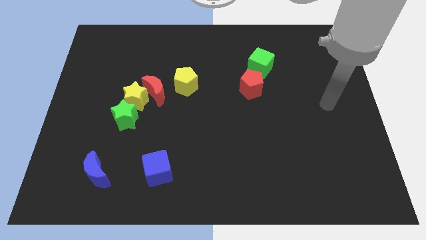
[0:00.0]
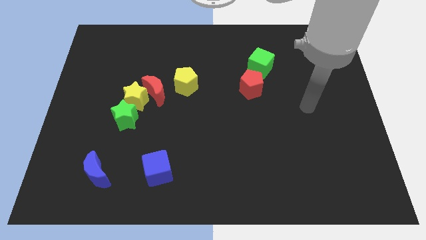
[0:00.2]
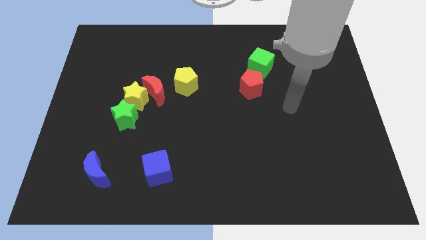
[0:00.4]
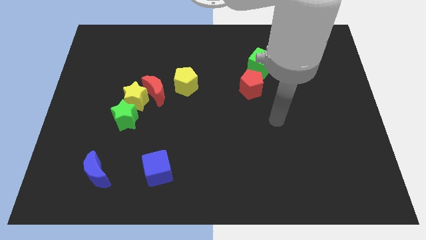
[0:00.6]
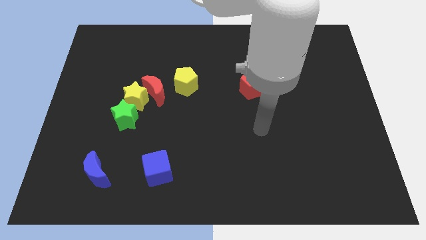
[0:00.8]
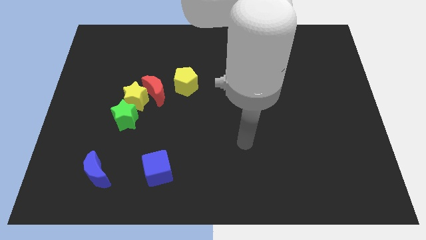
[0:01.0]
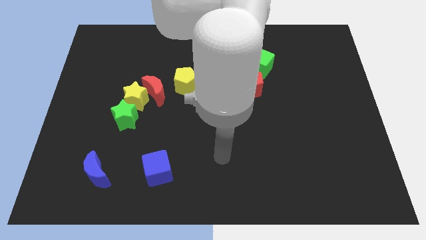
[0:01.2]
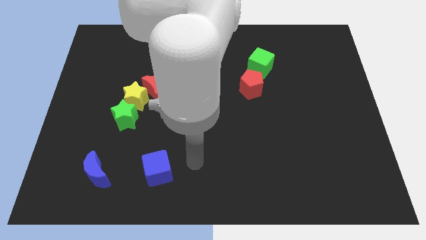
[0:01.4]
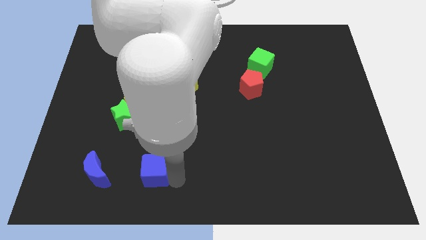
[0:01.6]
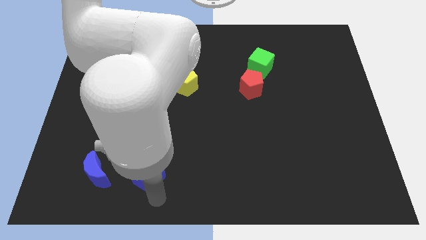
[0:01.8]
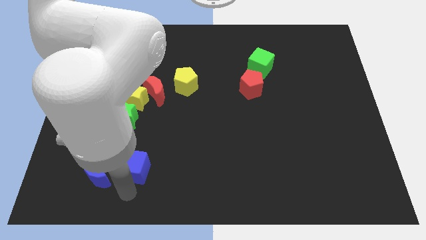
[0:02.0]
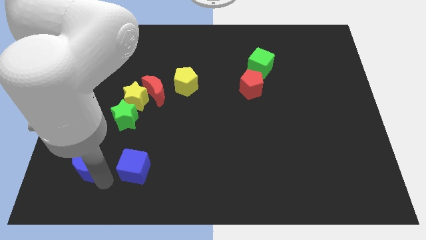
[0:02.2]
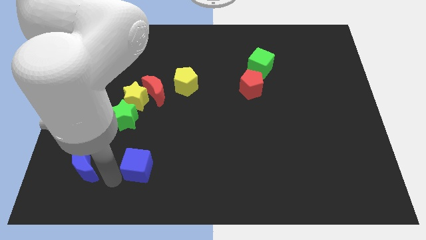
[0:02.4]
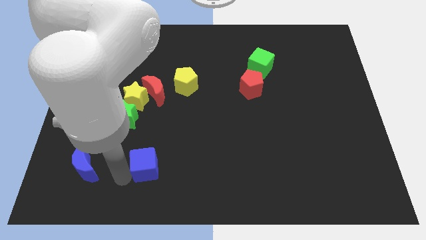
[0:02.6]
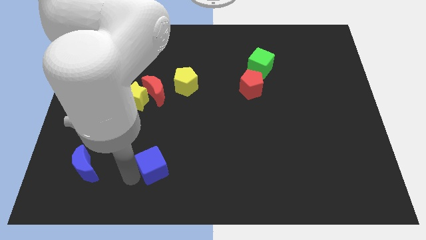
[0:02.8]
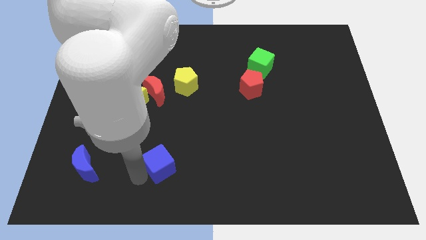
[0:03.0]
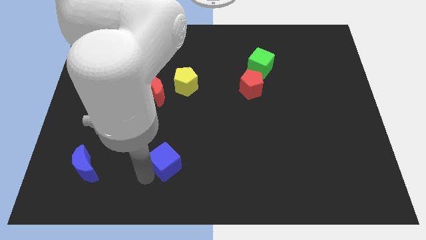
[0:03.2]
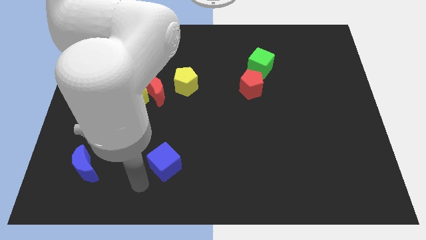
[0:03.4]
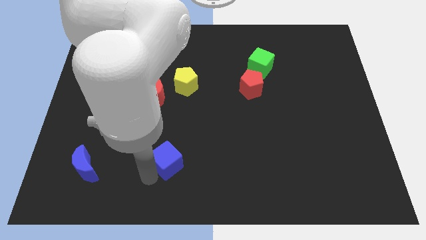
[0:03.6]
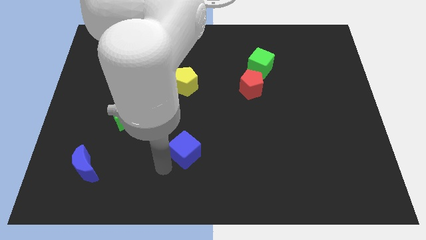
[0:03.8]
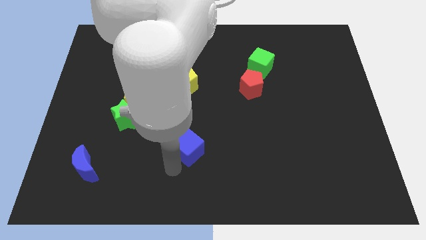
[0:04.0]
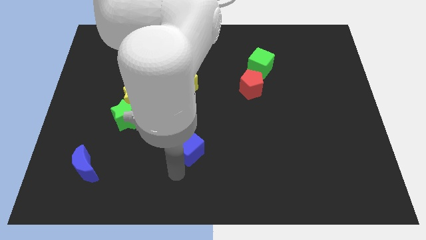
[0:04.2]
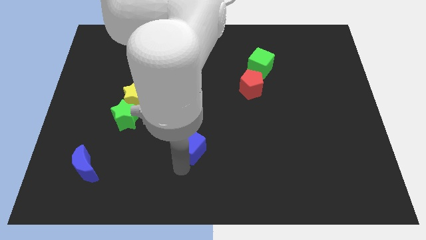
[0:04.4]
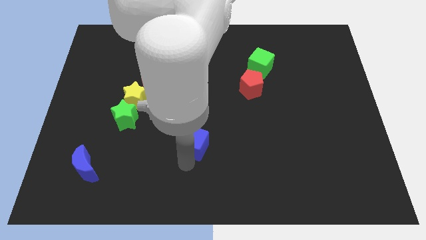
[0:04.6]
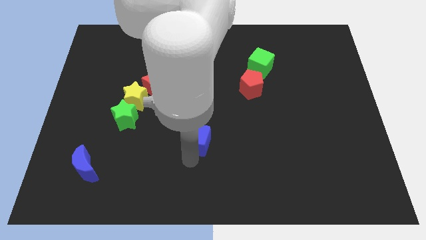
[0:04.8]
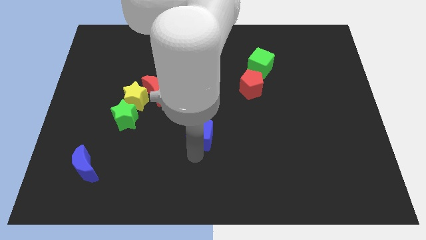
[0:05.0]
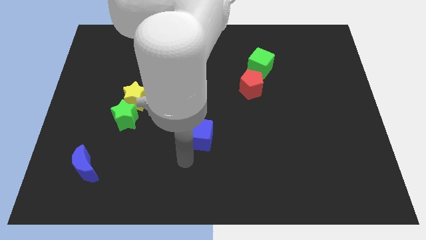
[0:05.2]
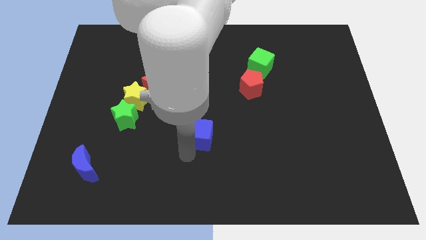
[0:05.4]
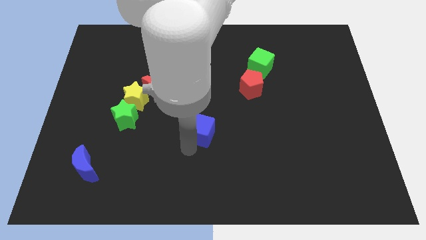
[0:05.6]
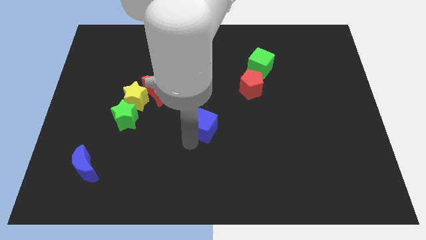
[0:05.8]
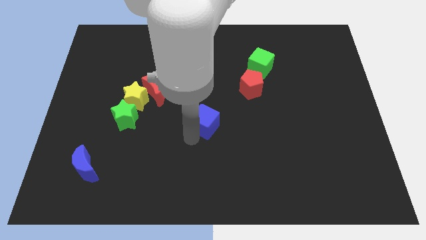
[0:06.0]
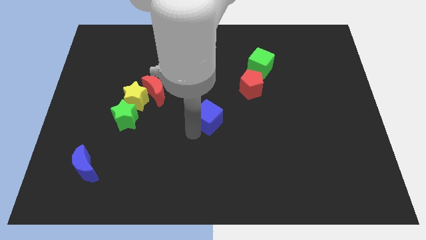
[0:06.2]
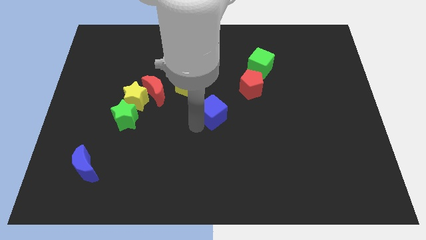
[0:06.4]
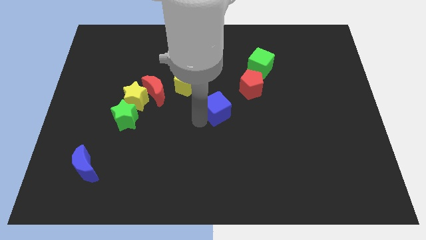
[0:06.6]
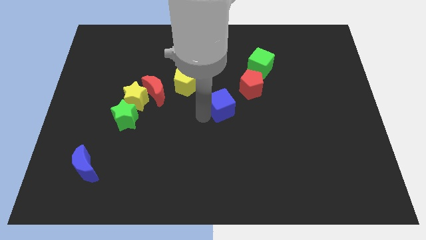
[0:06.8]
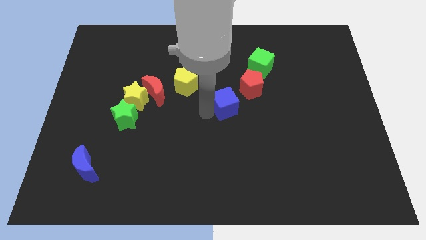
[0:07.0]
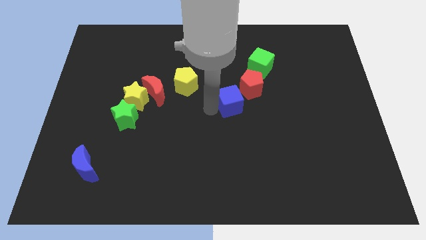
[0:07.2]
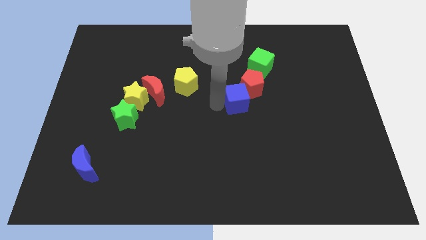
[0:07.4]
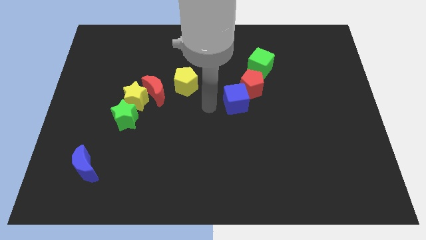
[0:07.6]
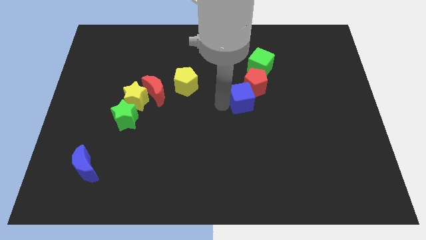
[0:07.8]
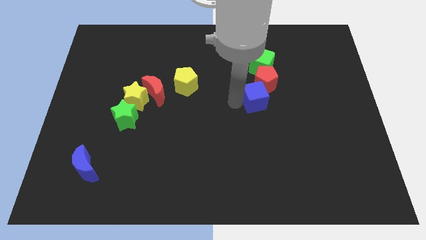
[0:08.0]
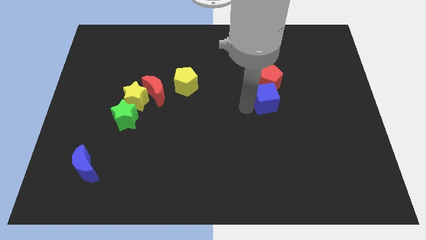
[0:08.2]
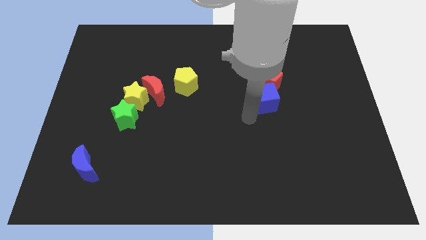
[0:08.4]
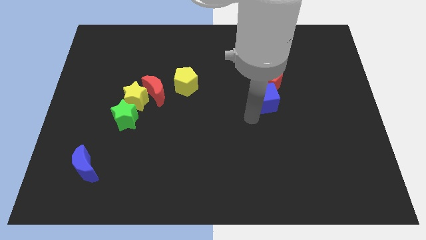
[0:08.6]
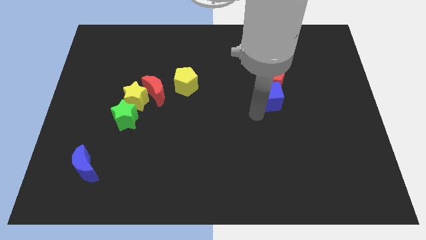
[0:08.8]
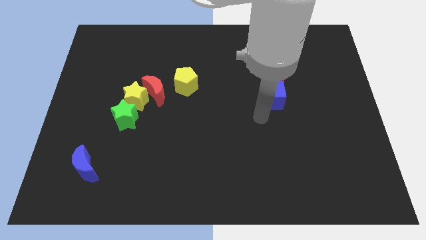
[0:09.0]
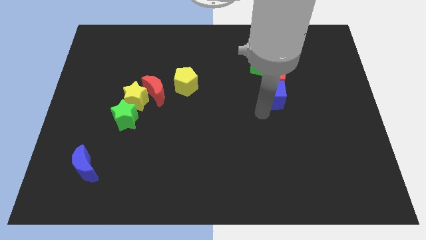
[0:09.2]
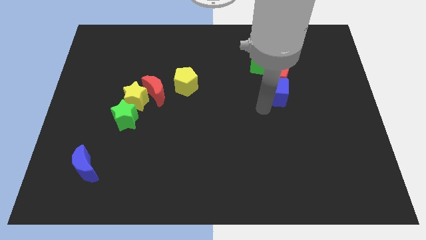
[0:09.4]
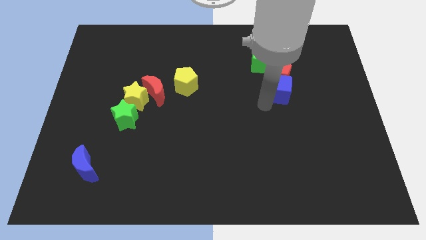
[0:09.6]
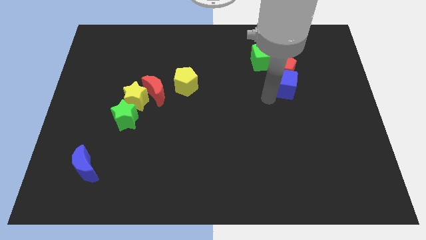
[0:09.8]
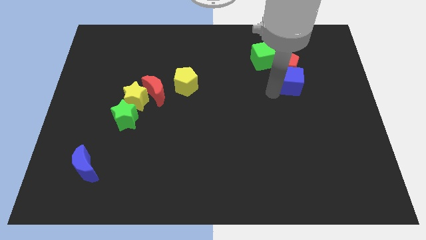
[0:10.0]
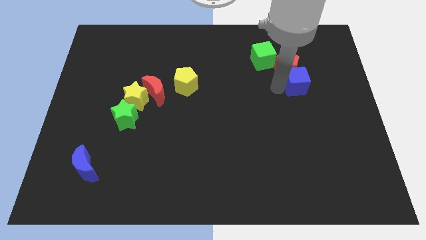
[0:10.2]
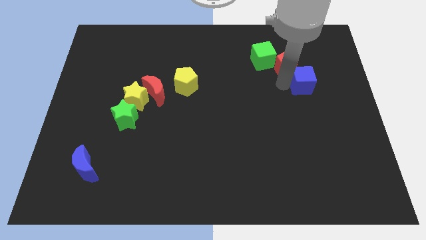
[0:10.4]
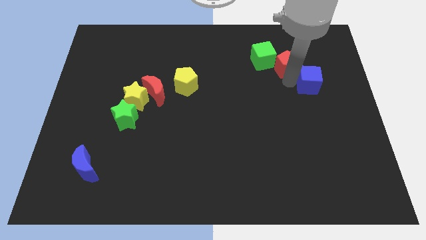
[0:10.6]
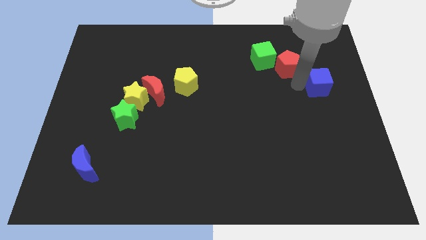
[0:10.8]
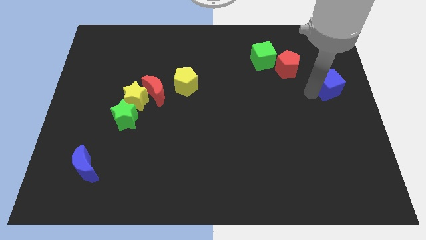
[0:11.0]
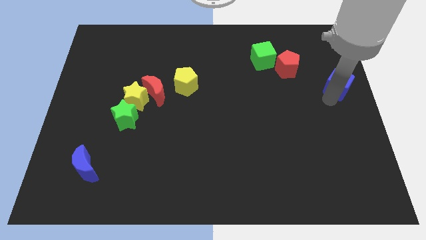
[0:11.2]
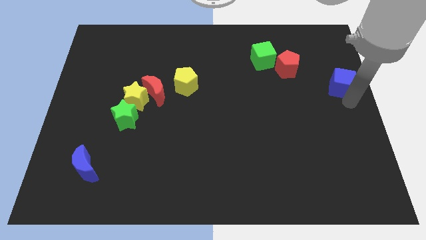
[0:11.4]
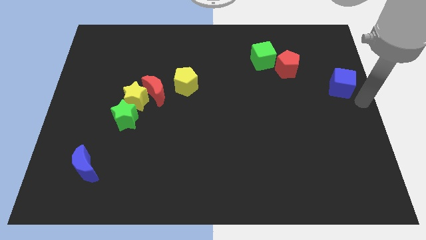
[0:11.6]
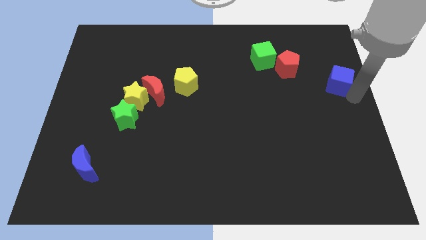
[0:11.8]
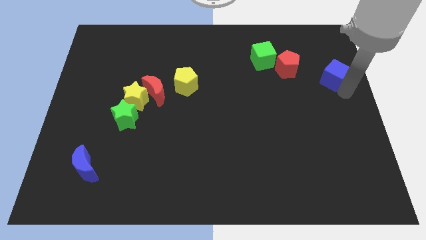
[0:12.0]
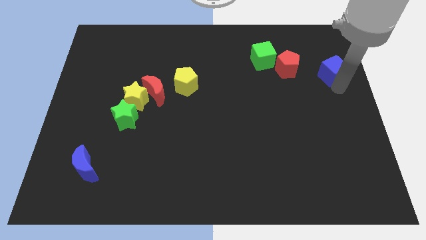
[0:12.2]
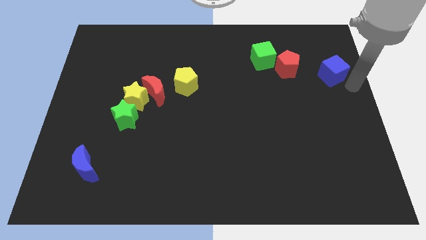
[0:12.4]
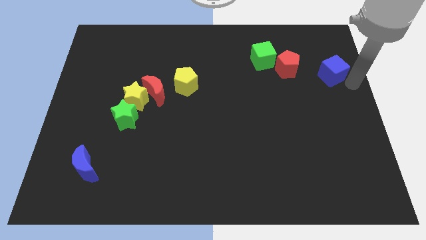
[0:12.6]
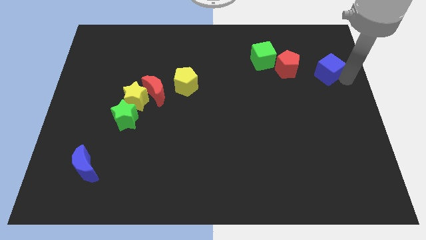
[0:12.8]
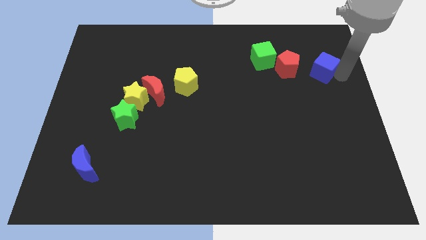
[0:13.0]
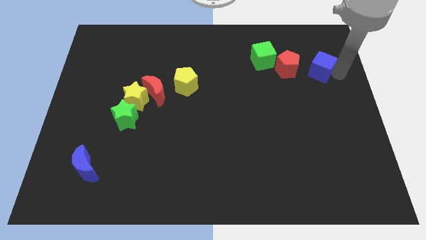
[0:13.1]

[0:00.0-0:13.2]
put the blue cube to the right side of the green cube

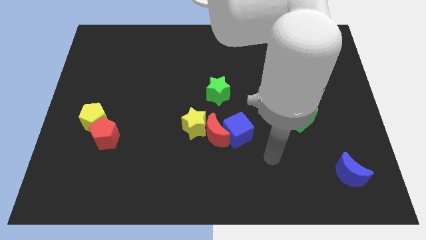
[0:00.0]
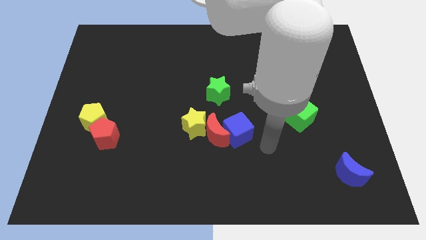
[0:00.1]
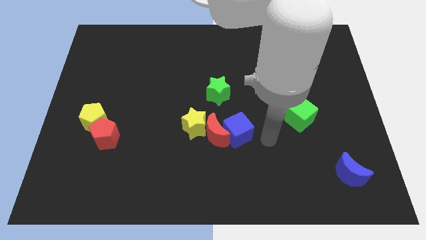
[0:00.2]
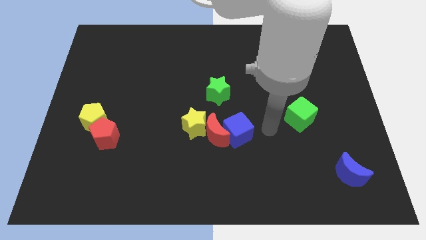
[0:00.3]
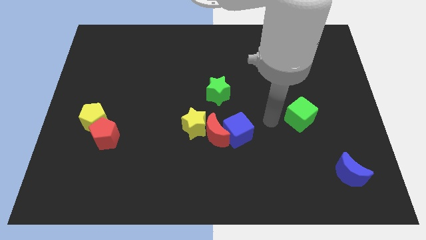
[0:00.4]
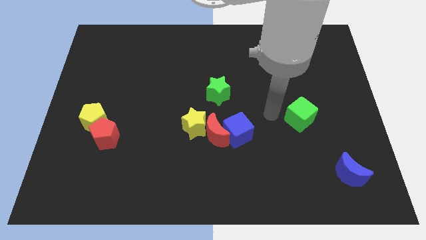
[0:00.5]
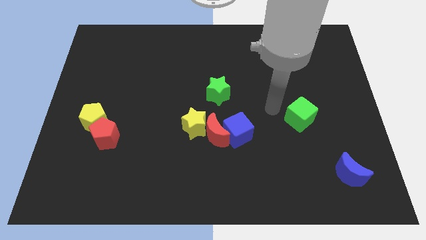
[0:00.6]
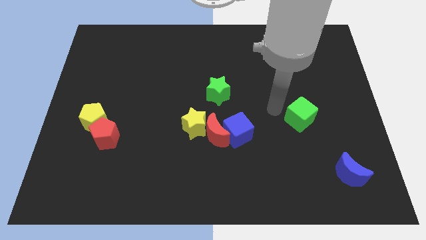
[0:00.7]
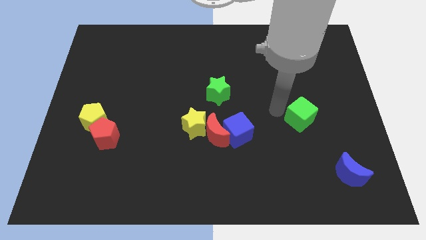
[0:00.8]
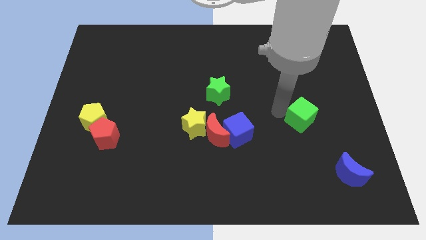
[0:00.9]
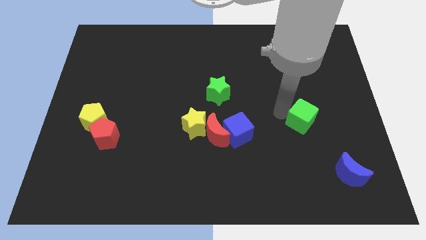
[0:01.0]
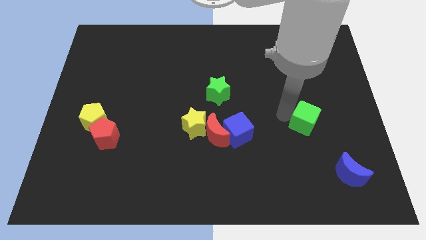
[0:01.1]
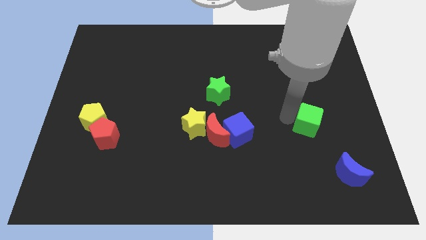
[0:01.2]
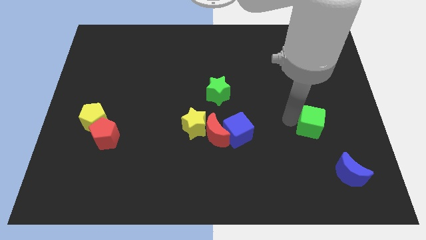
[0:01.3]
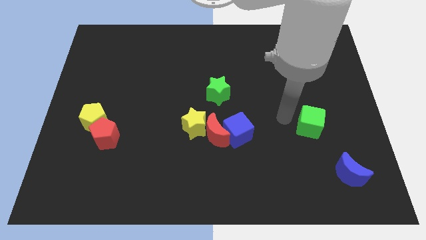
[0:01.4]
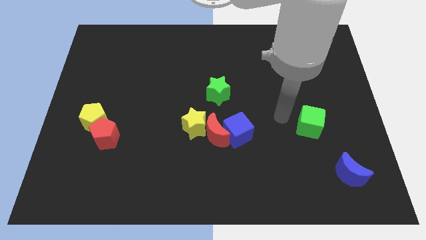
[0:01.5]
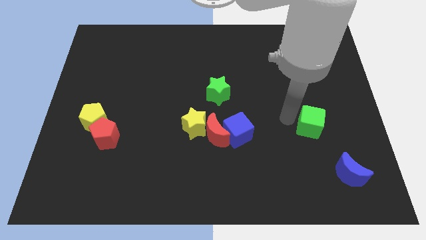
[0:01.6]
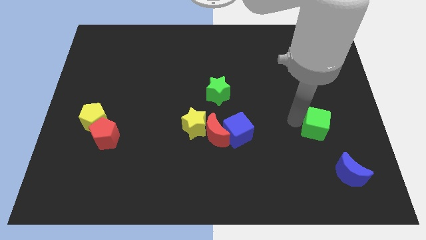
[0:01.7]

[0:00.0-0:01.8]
move the green cube to the top of the blue moon
